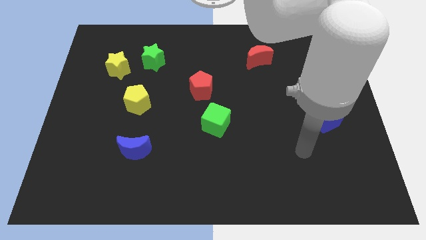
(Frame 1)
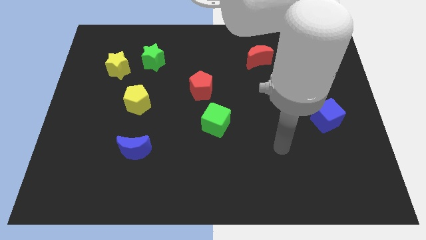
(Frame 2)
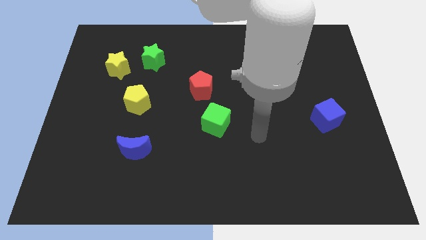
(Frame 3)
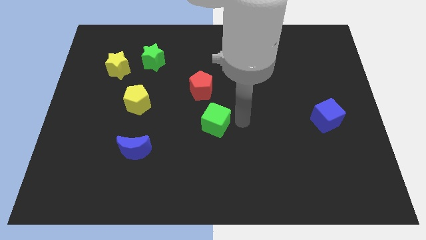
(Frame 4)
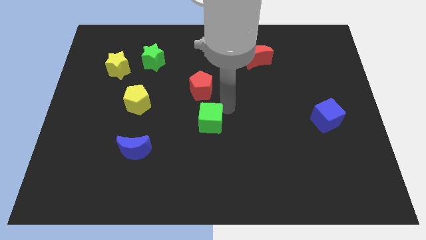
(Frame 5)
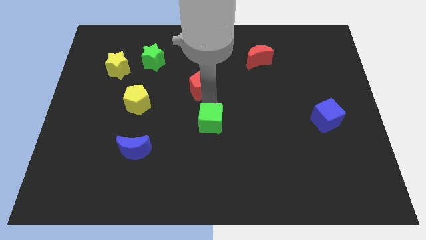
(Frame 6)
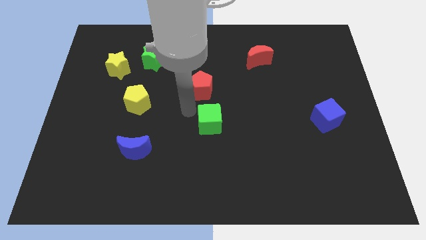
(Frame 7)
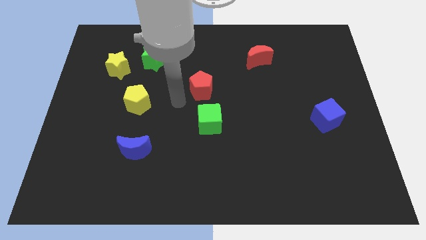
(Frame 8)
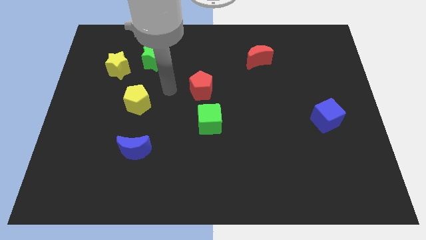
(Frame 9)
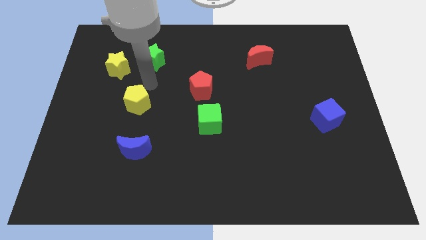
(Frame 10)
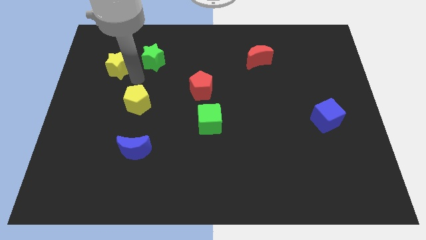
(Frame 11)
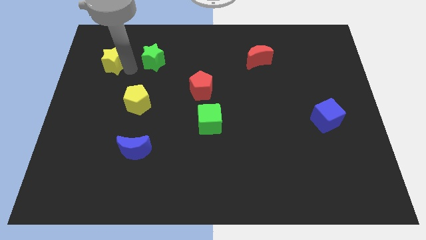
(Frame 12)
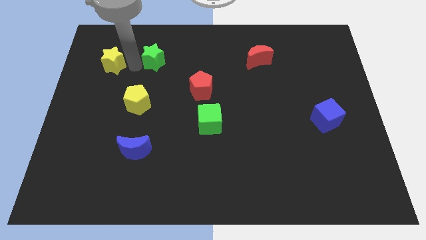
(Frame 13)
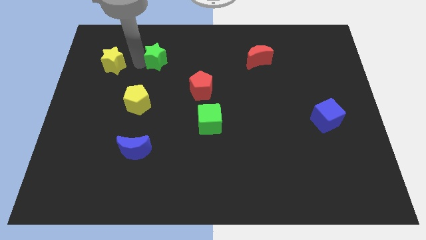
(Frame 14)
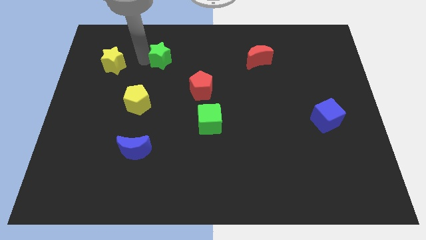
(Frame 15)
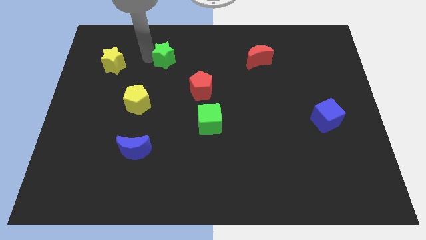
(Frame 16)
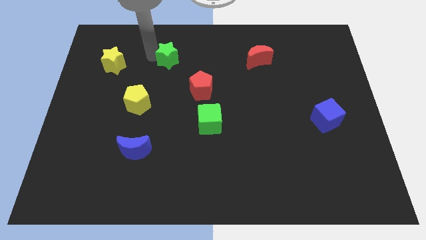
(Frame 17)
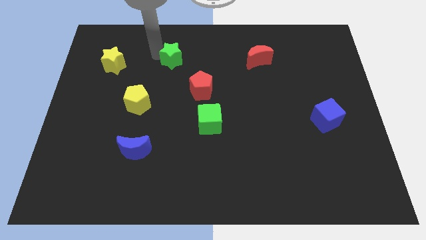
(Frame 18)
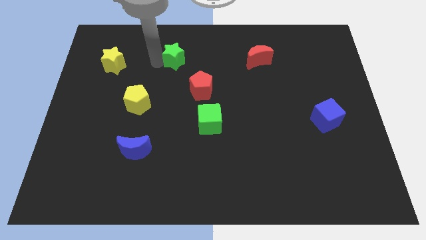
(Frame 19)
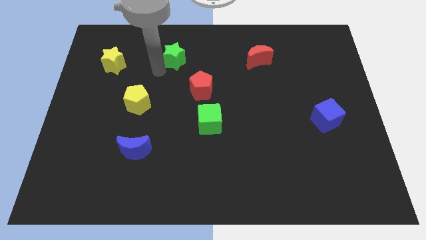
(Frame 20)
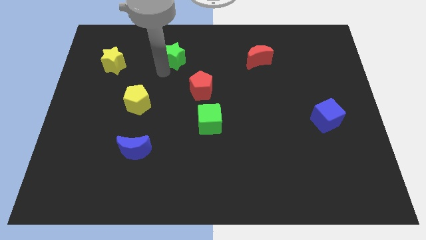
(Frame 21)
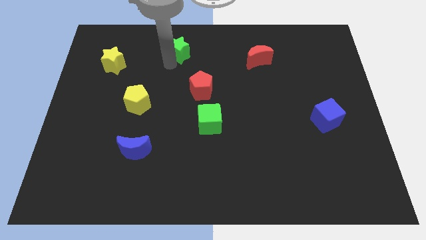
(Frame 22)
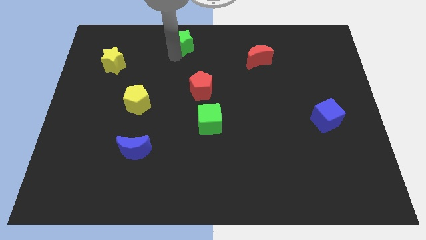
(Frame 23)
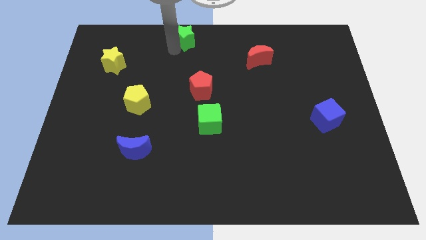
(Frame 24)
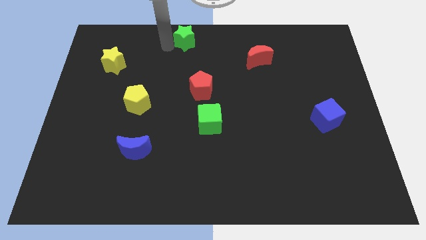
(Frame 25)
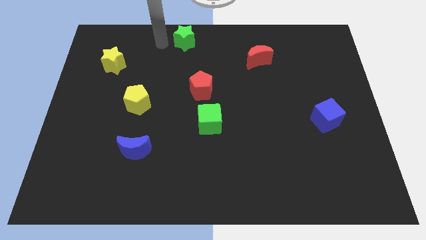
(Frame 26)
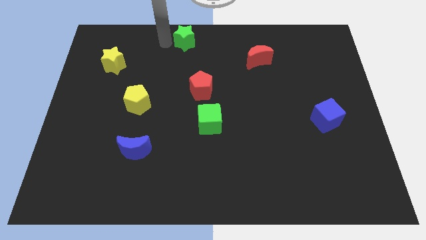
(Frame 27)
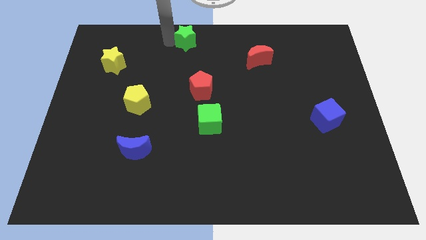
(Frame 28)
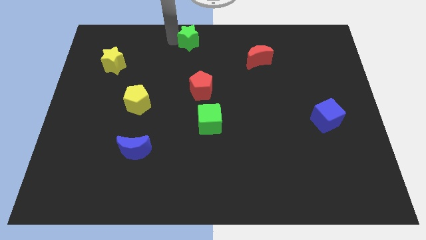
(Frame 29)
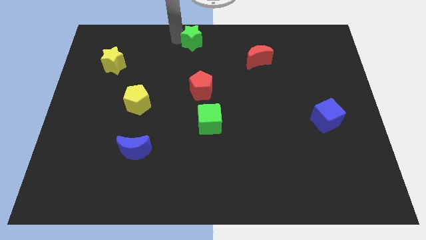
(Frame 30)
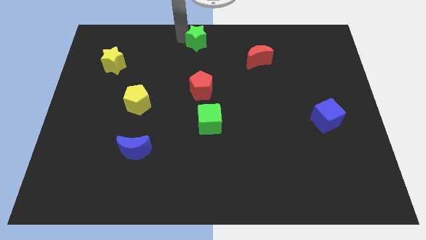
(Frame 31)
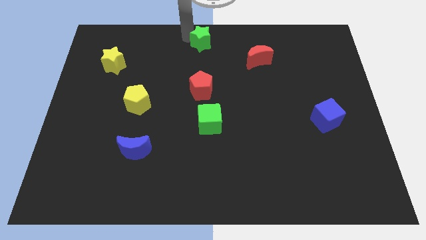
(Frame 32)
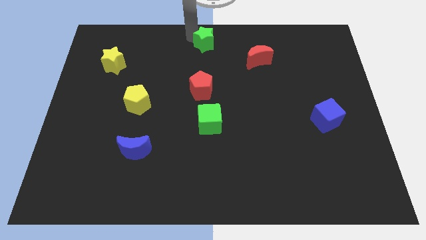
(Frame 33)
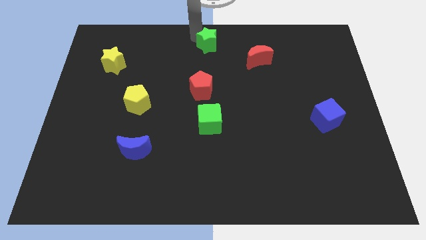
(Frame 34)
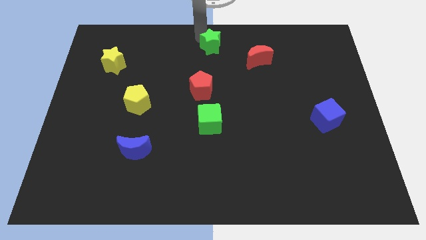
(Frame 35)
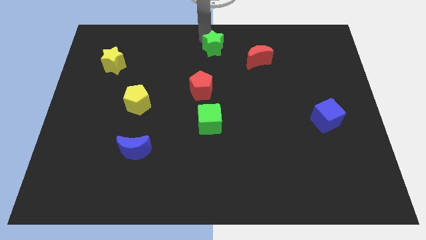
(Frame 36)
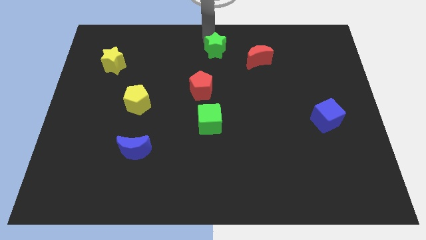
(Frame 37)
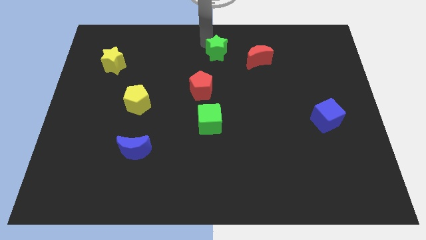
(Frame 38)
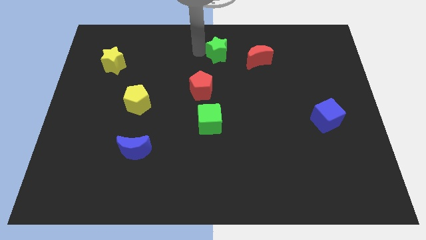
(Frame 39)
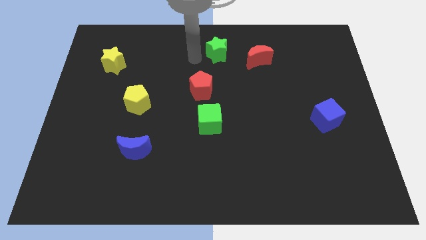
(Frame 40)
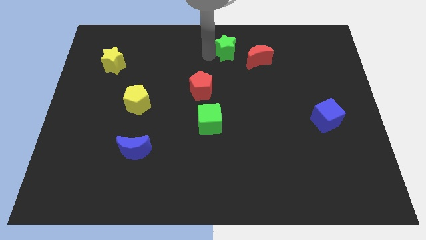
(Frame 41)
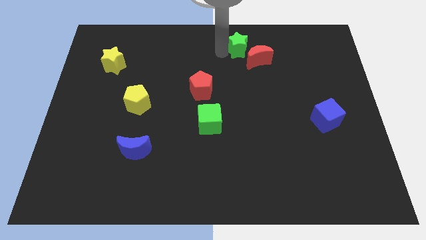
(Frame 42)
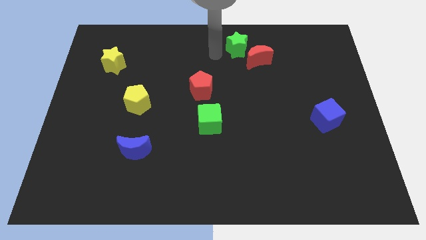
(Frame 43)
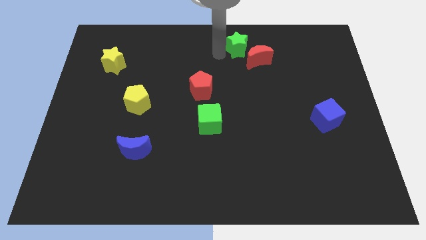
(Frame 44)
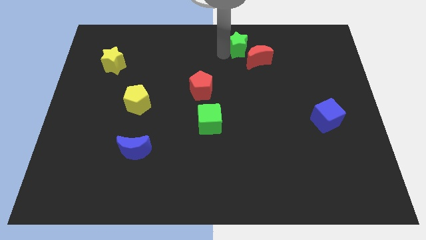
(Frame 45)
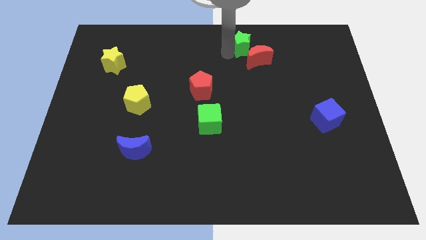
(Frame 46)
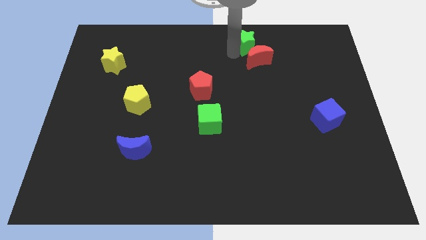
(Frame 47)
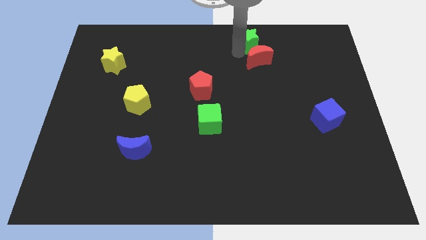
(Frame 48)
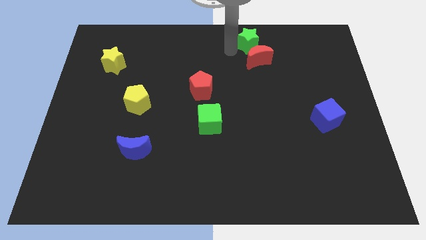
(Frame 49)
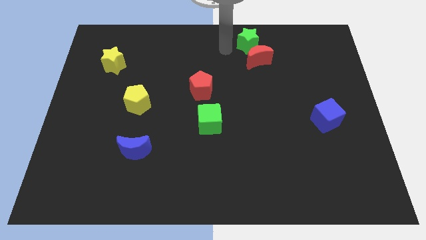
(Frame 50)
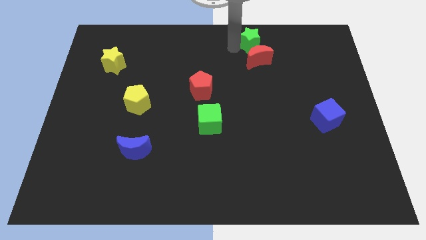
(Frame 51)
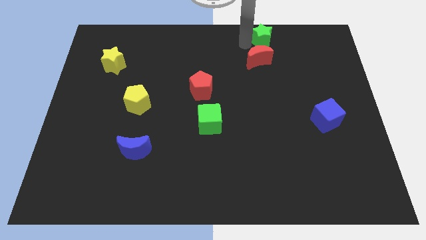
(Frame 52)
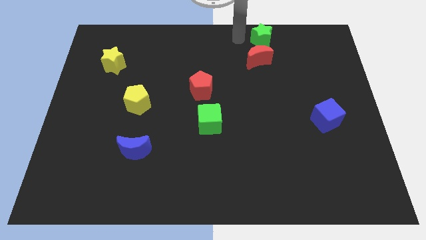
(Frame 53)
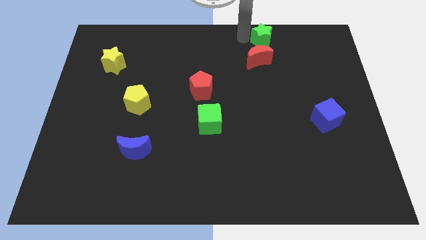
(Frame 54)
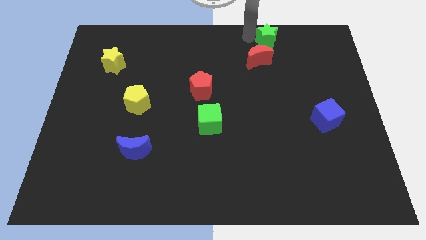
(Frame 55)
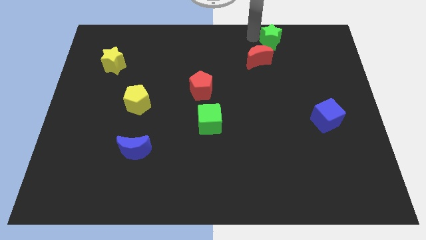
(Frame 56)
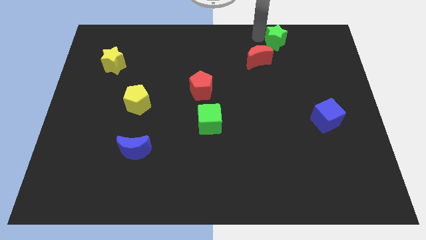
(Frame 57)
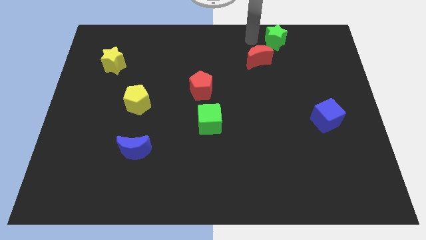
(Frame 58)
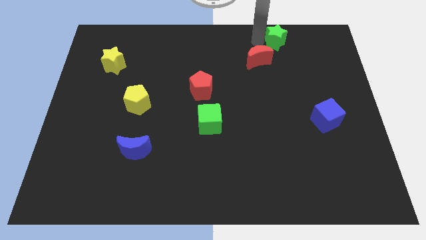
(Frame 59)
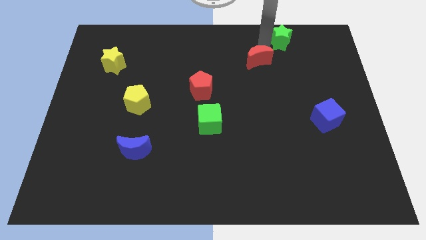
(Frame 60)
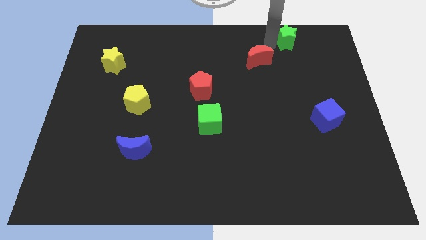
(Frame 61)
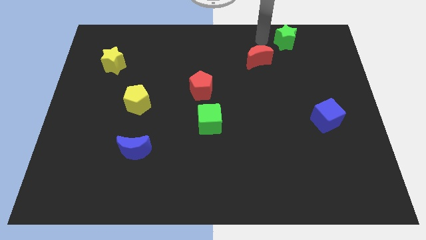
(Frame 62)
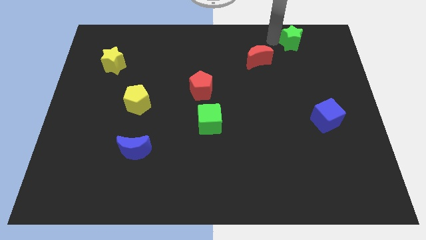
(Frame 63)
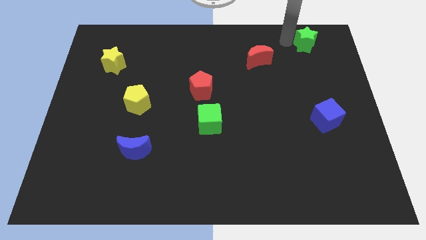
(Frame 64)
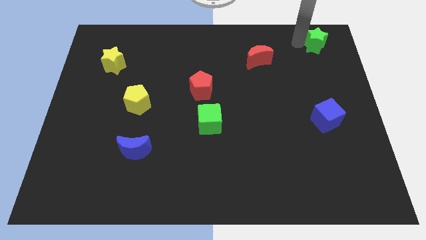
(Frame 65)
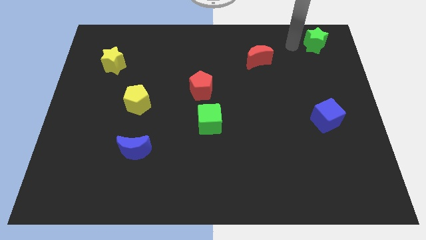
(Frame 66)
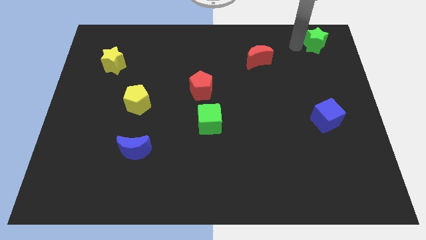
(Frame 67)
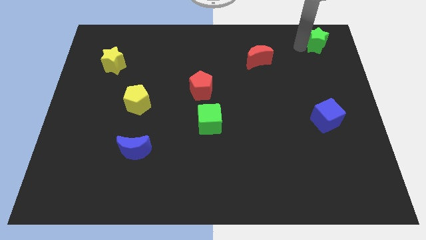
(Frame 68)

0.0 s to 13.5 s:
put the green star to the top right corner
